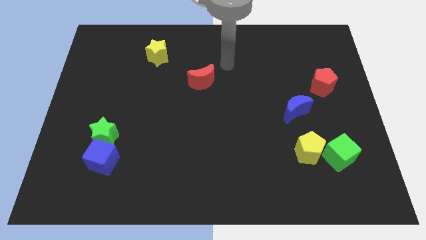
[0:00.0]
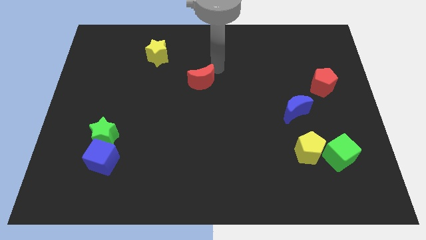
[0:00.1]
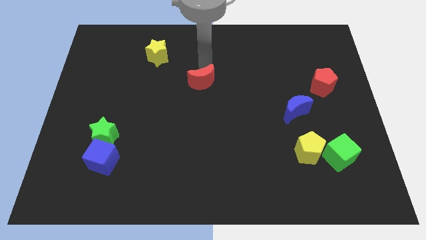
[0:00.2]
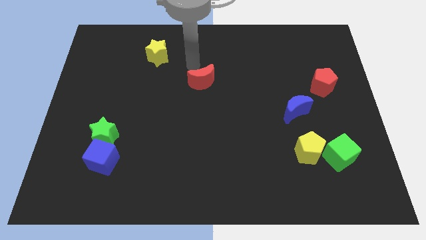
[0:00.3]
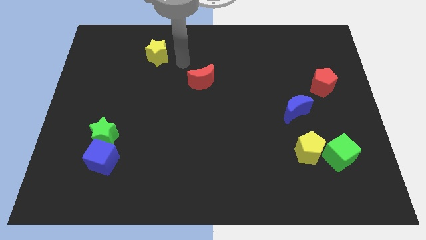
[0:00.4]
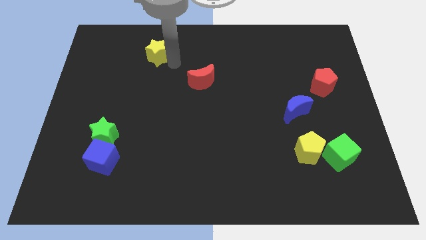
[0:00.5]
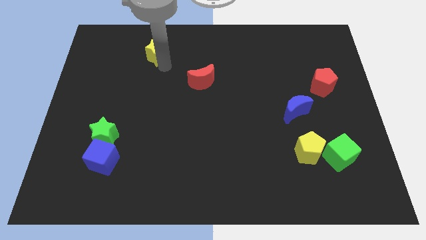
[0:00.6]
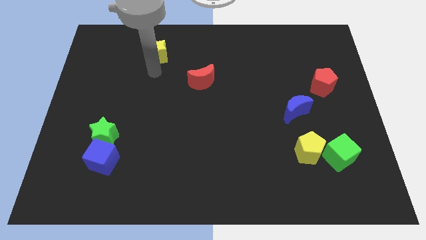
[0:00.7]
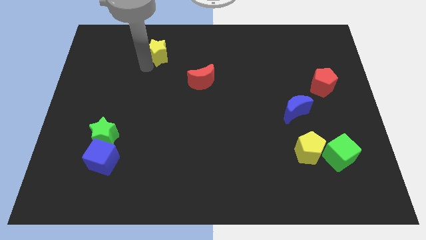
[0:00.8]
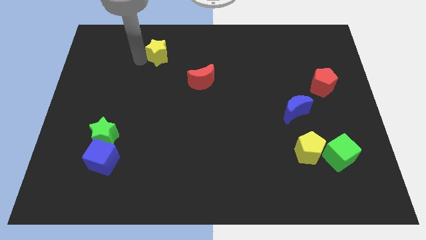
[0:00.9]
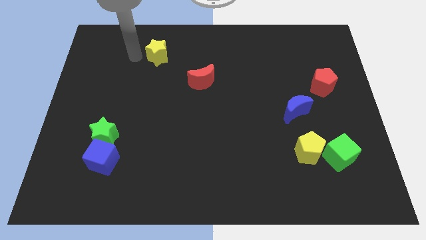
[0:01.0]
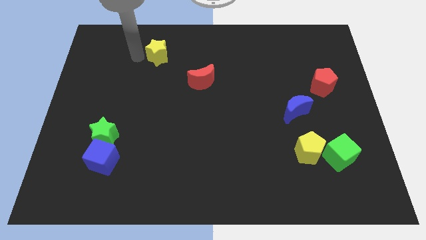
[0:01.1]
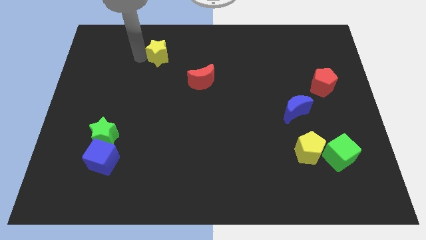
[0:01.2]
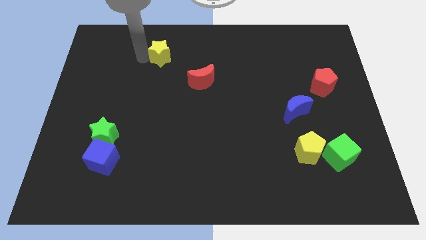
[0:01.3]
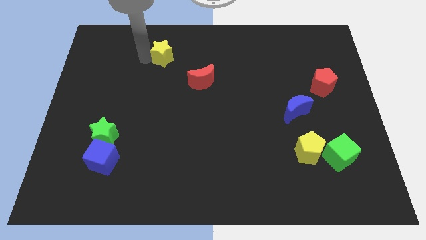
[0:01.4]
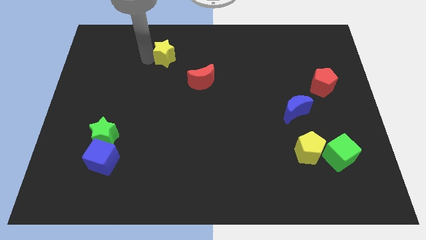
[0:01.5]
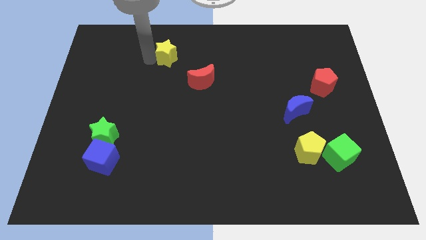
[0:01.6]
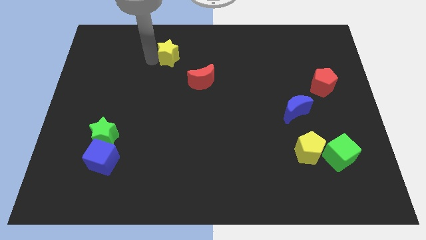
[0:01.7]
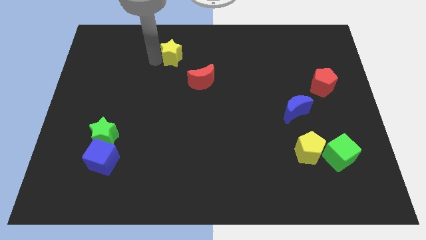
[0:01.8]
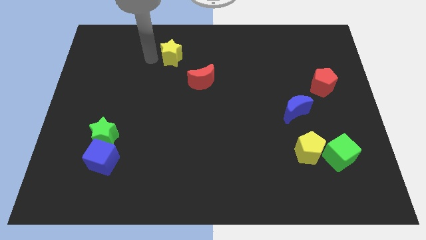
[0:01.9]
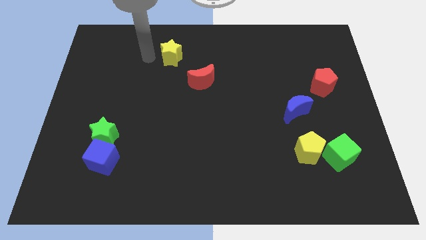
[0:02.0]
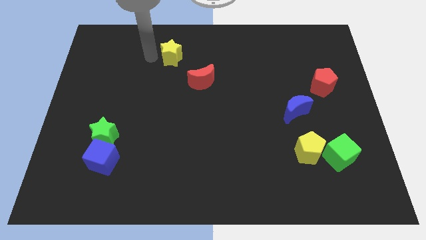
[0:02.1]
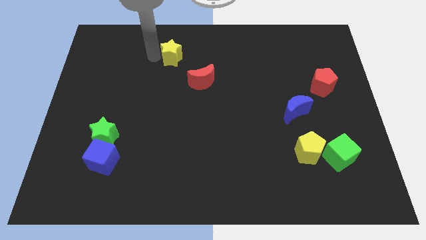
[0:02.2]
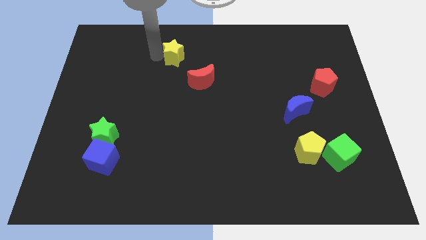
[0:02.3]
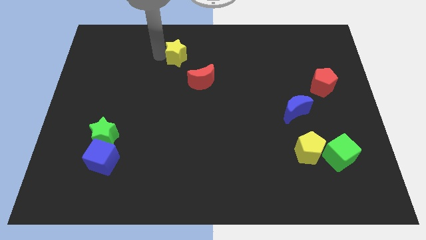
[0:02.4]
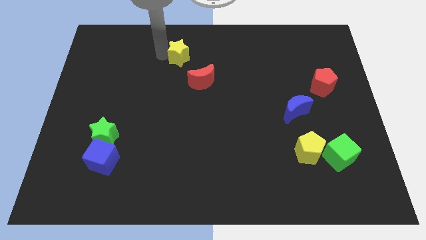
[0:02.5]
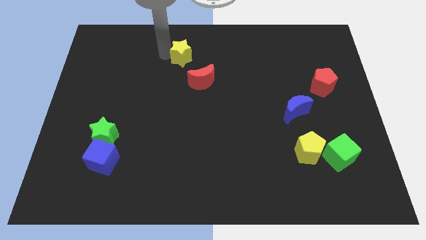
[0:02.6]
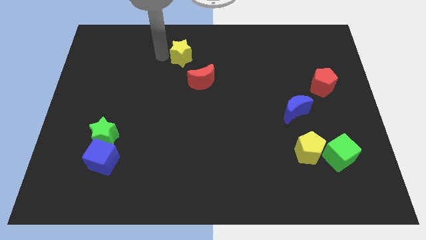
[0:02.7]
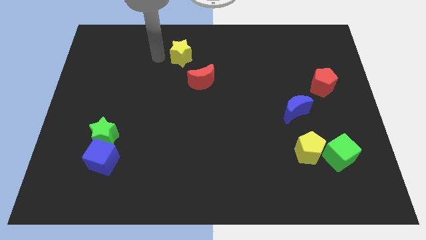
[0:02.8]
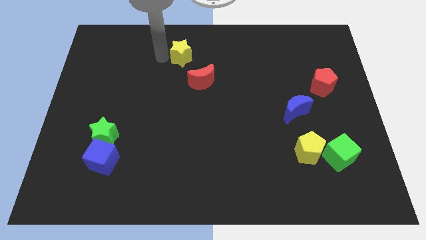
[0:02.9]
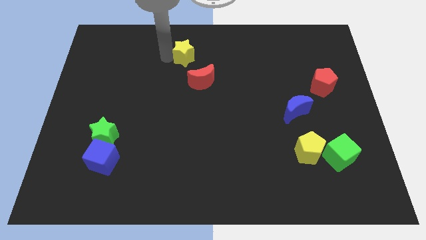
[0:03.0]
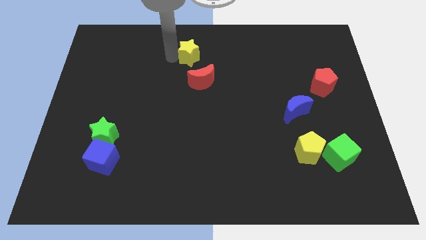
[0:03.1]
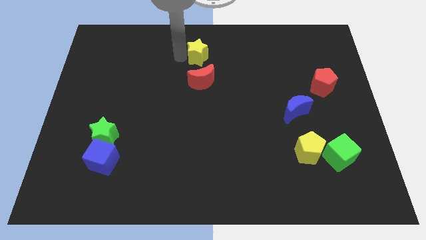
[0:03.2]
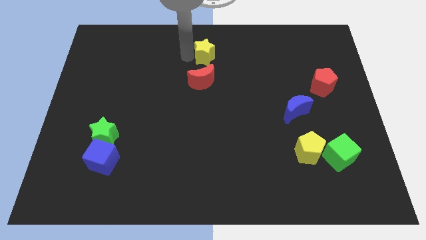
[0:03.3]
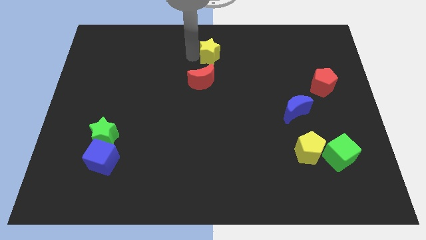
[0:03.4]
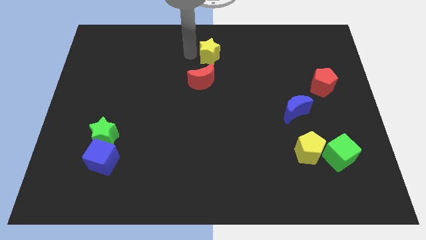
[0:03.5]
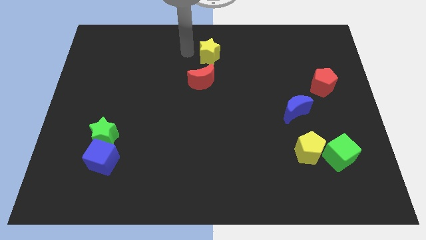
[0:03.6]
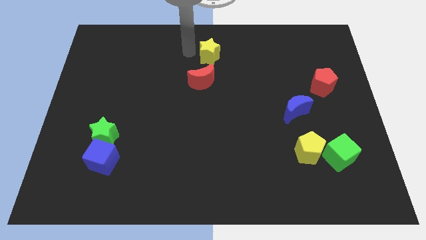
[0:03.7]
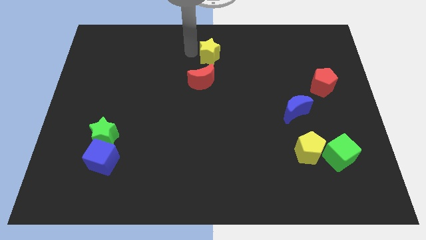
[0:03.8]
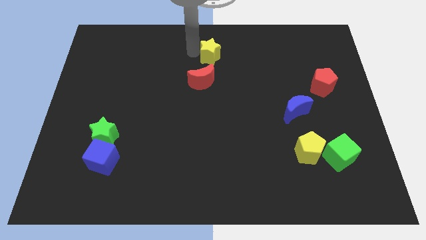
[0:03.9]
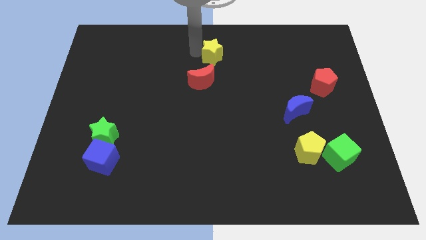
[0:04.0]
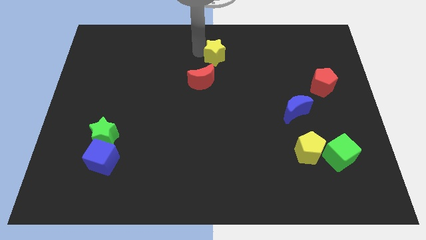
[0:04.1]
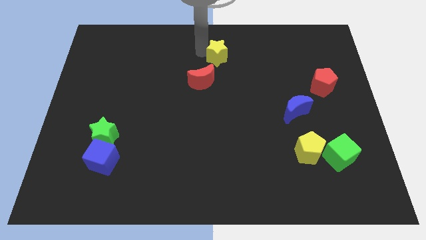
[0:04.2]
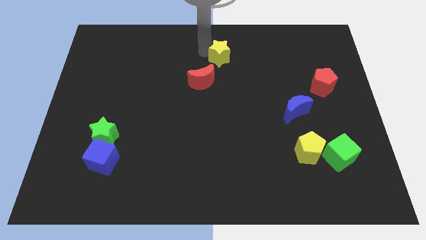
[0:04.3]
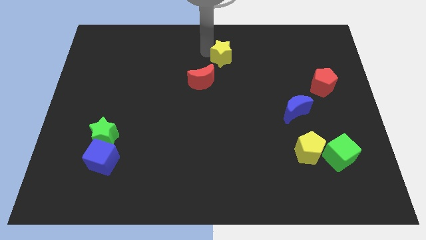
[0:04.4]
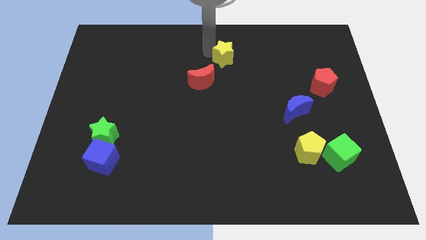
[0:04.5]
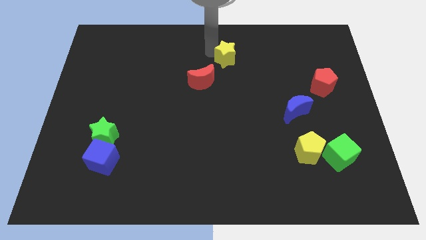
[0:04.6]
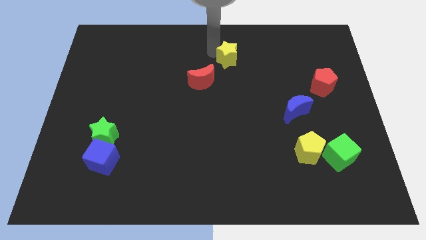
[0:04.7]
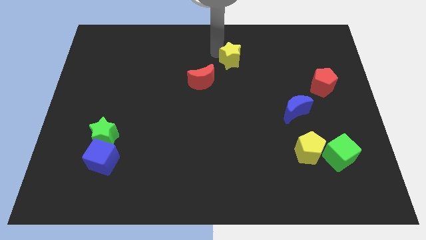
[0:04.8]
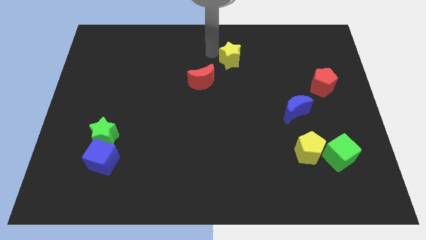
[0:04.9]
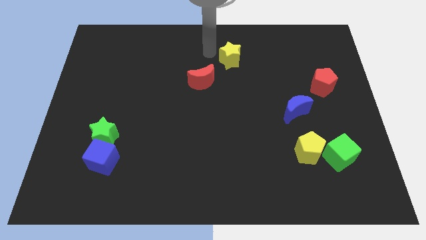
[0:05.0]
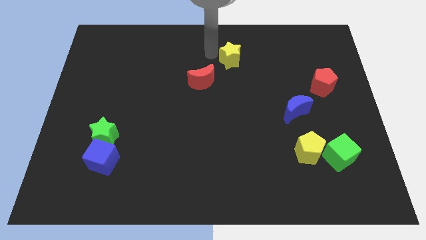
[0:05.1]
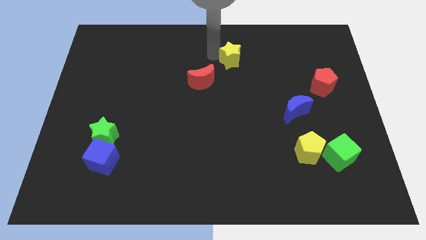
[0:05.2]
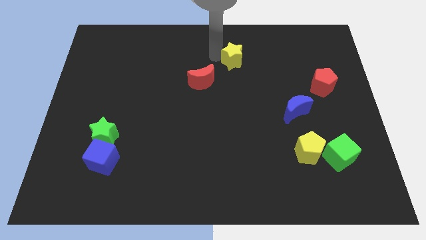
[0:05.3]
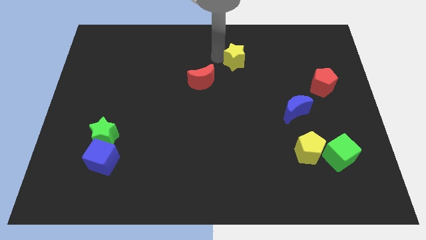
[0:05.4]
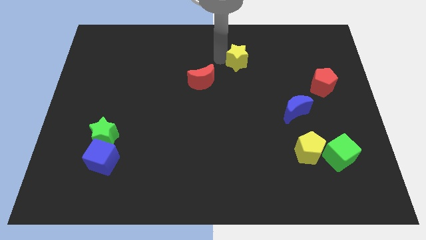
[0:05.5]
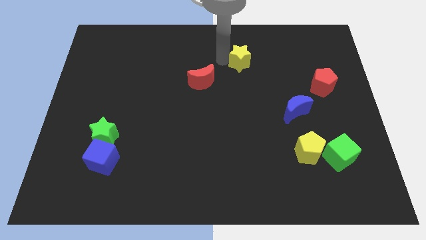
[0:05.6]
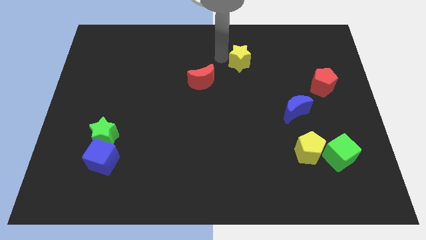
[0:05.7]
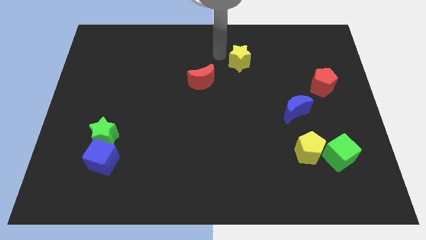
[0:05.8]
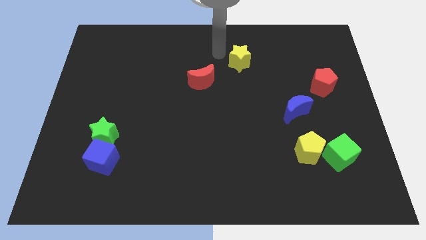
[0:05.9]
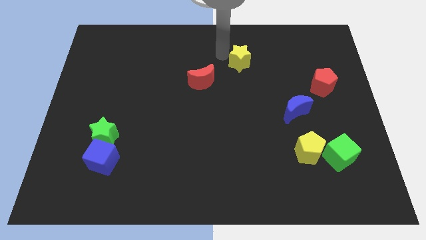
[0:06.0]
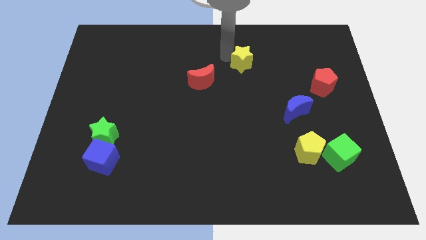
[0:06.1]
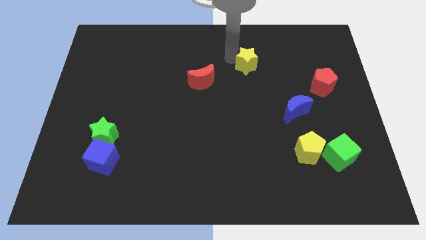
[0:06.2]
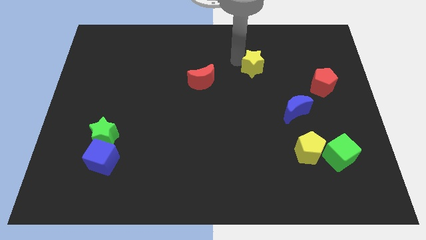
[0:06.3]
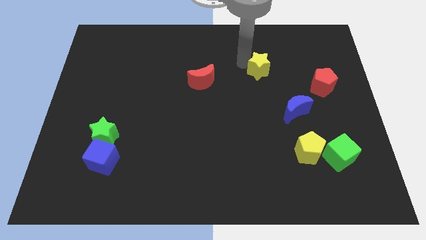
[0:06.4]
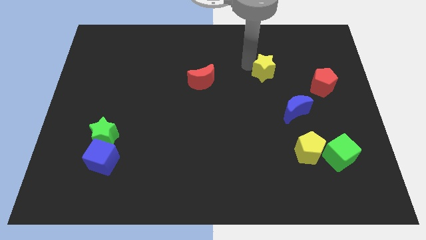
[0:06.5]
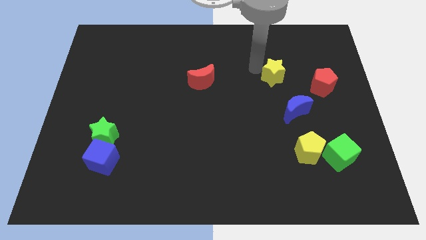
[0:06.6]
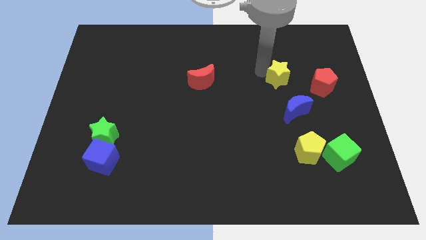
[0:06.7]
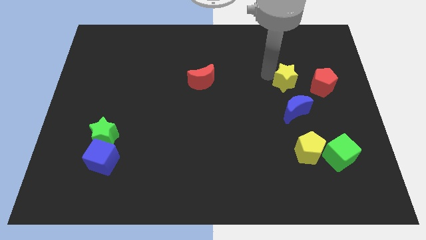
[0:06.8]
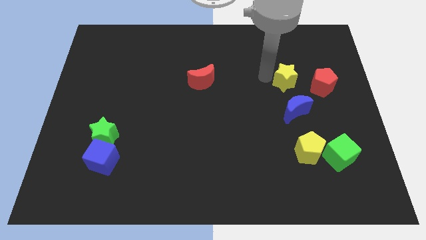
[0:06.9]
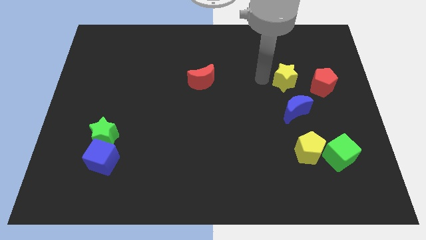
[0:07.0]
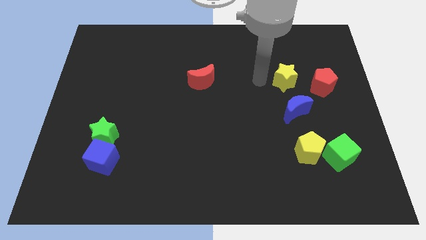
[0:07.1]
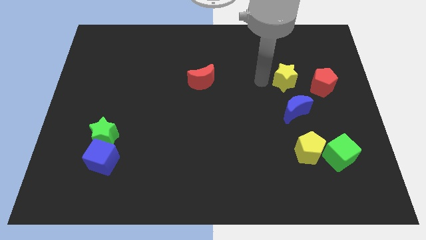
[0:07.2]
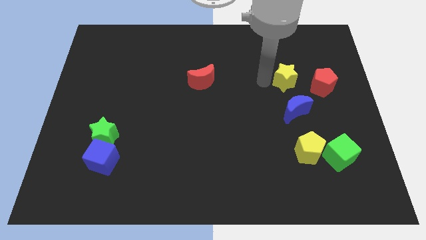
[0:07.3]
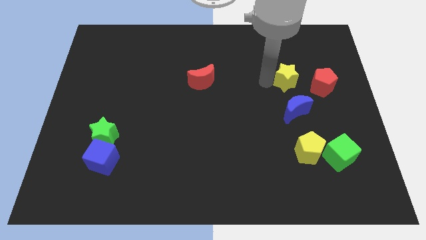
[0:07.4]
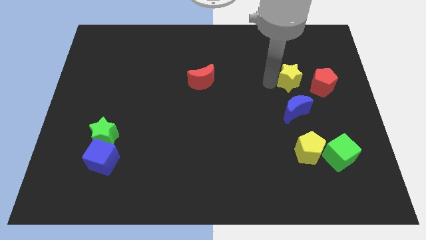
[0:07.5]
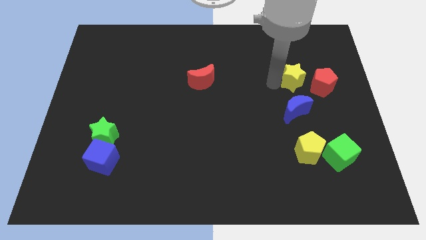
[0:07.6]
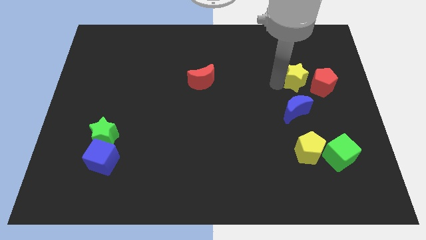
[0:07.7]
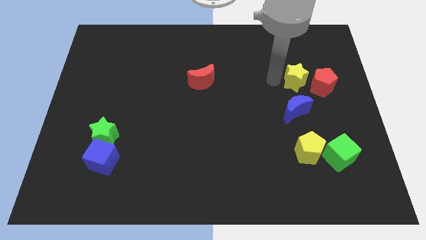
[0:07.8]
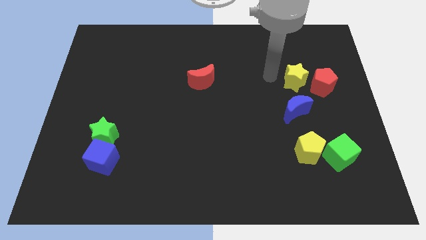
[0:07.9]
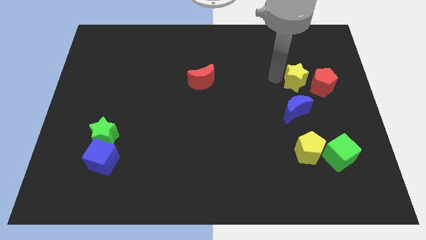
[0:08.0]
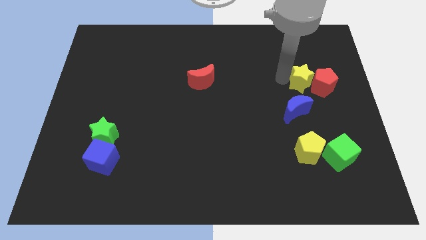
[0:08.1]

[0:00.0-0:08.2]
slide the yellow star next to the red pentagon
